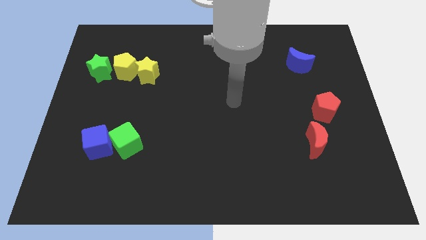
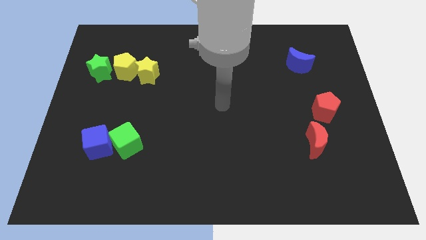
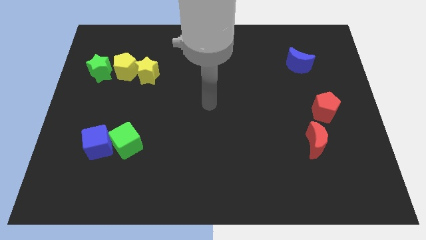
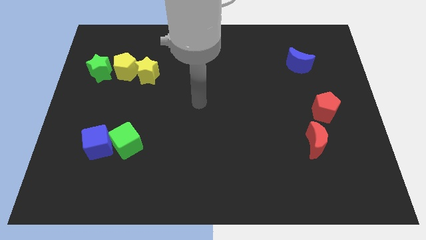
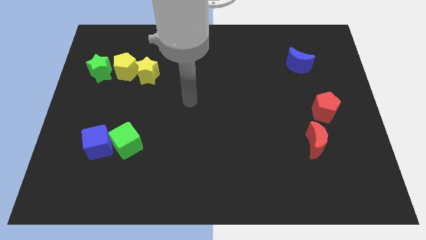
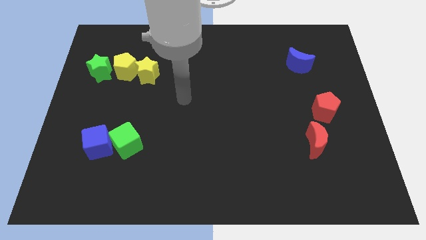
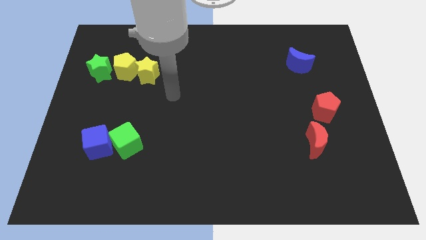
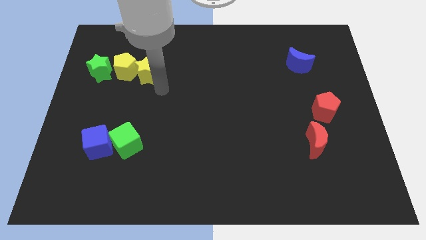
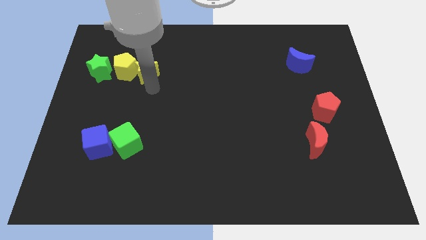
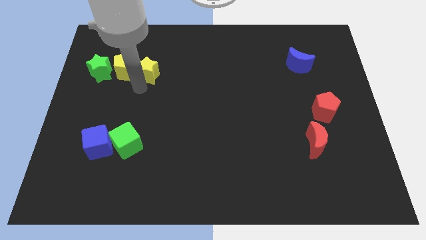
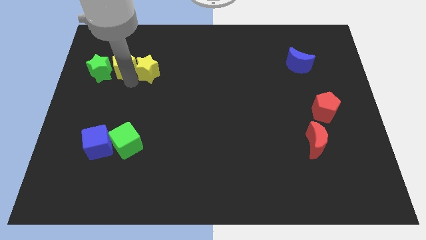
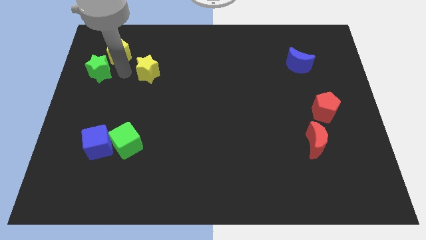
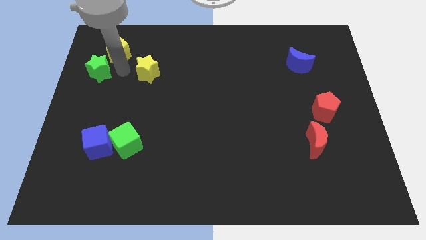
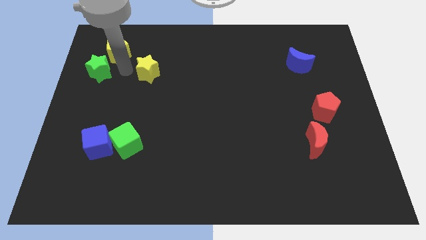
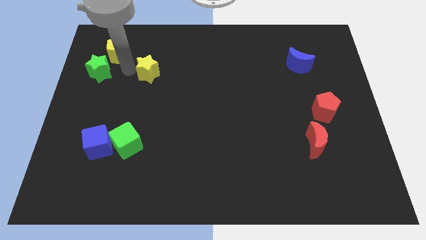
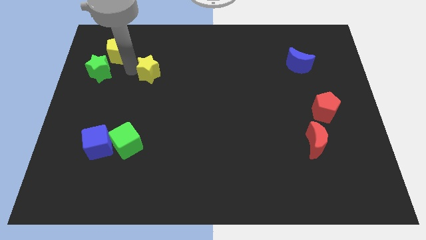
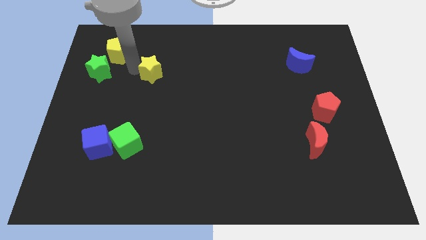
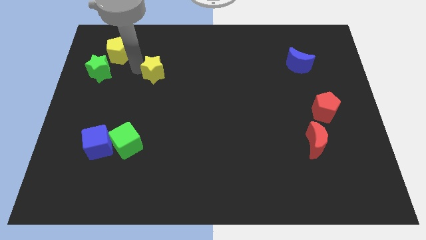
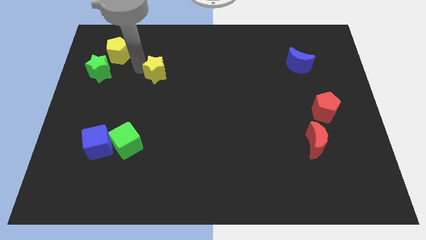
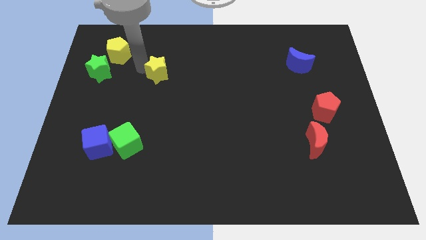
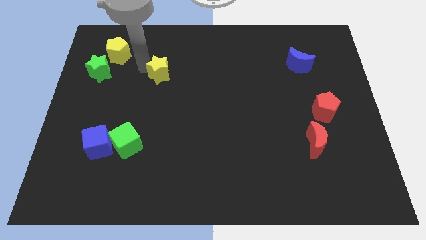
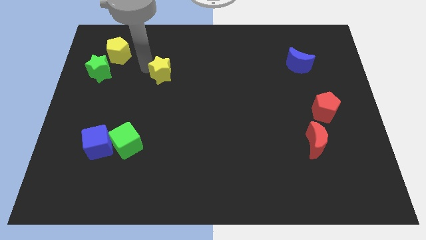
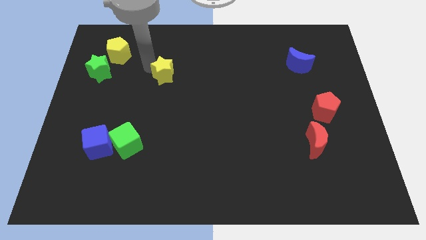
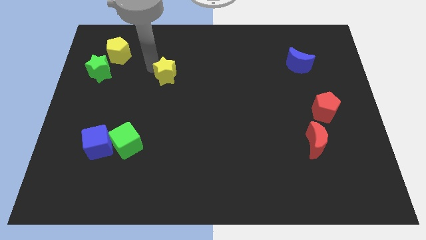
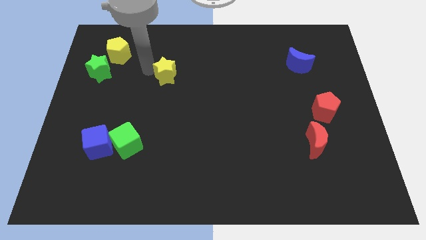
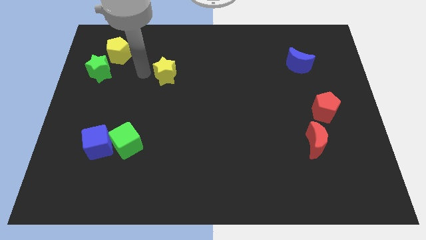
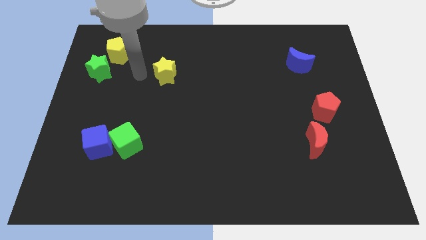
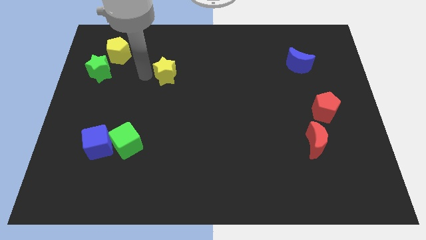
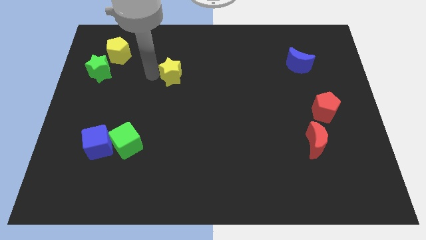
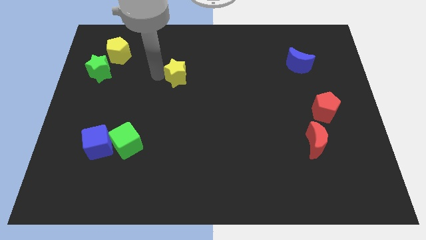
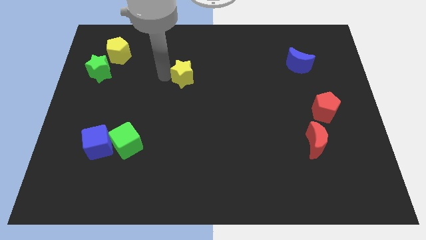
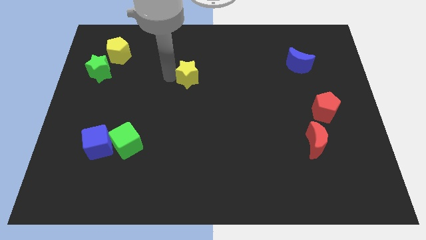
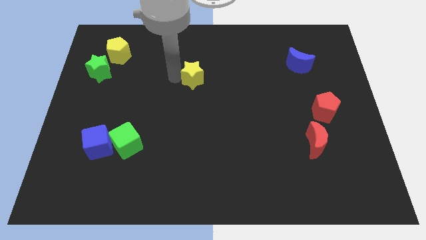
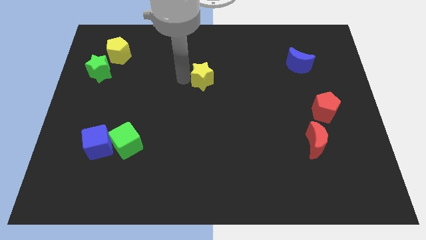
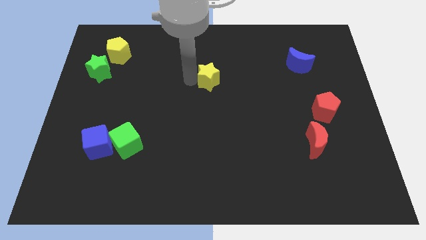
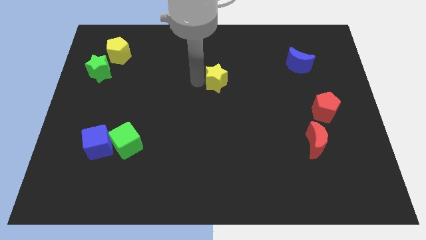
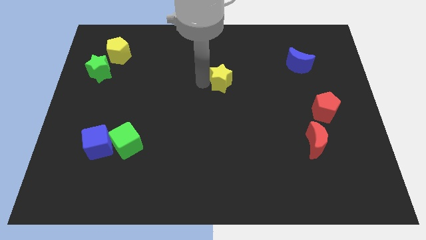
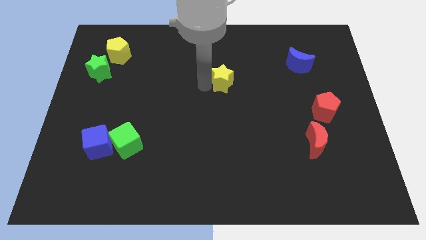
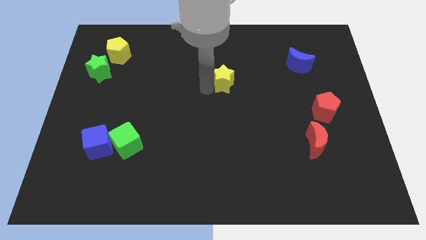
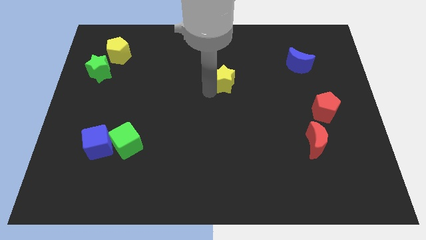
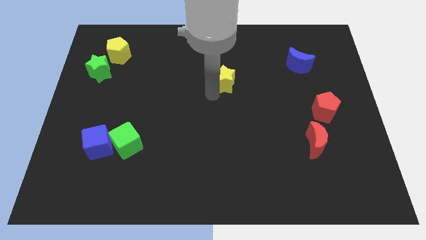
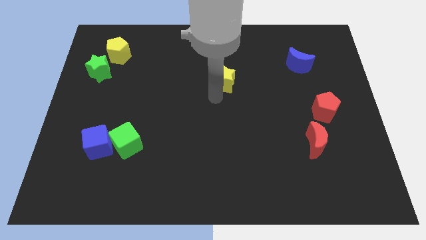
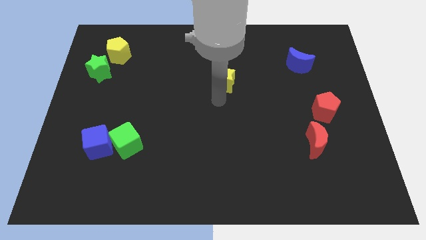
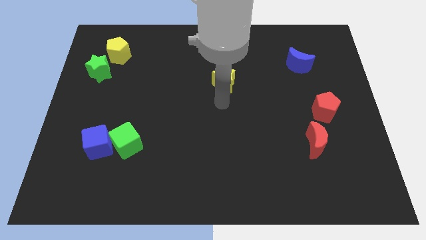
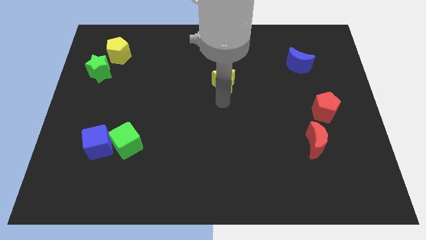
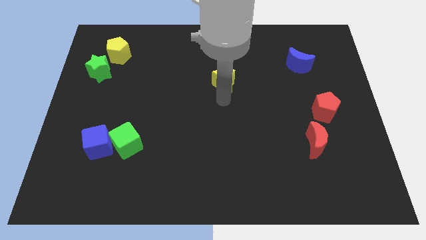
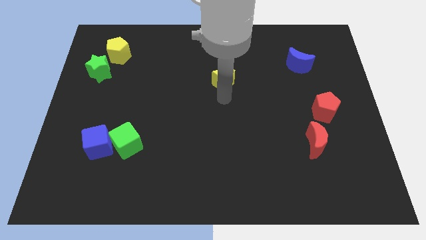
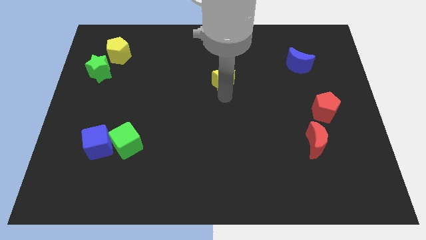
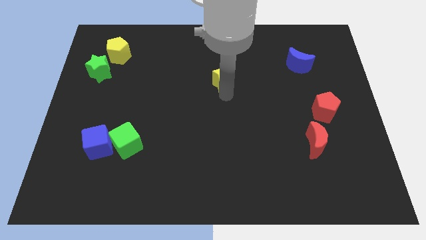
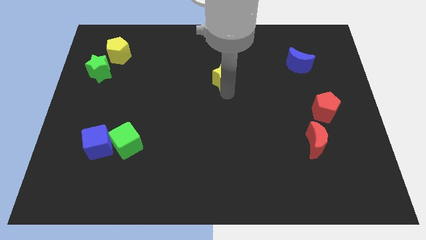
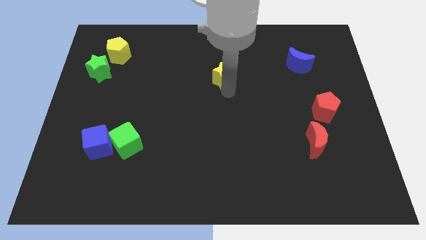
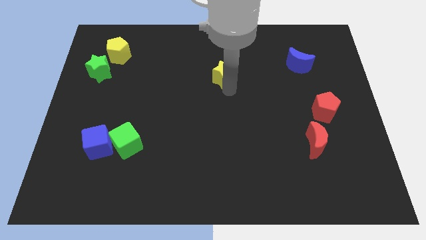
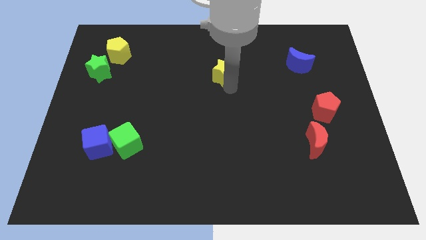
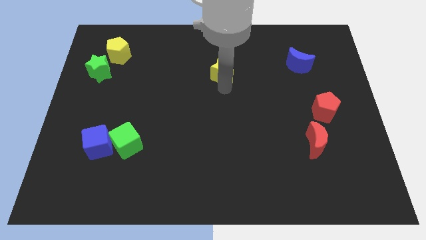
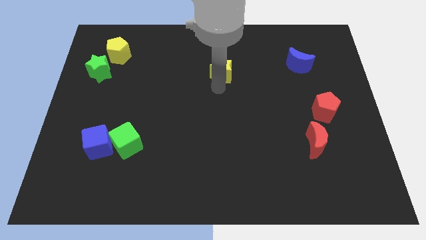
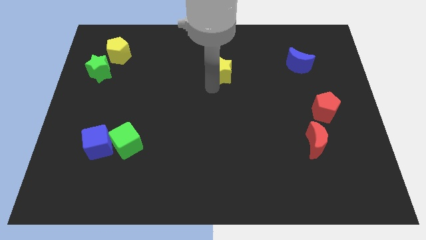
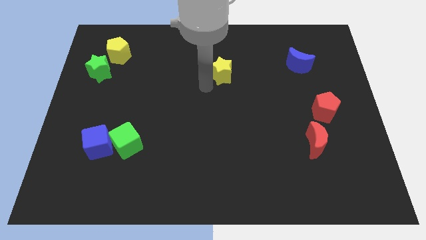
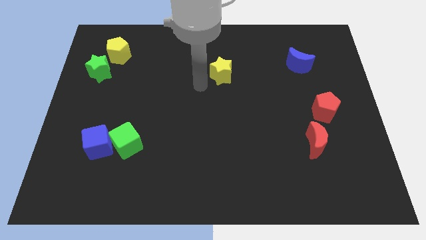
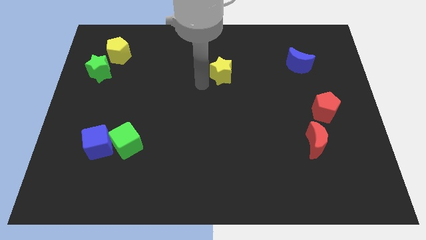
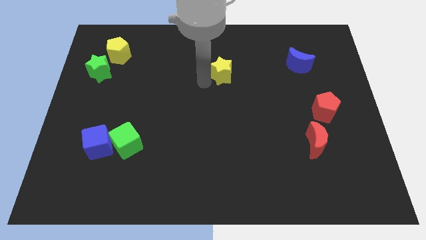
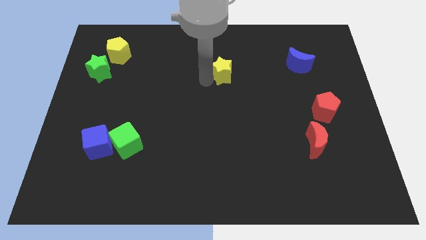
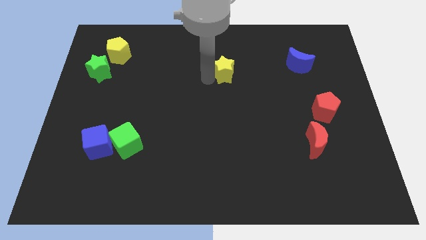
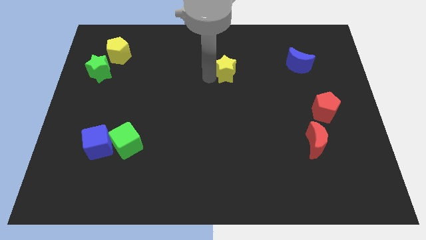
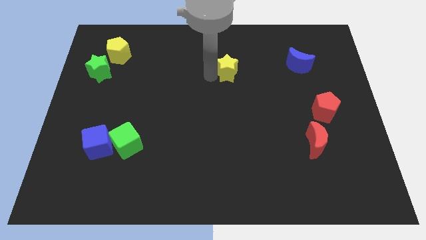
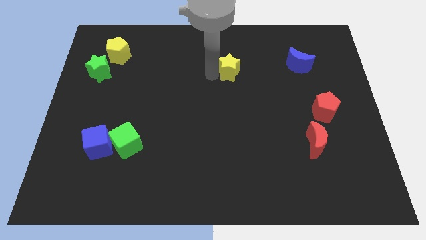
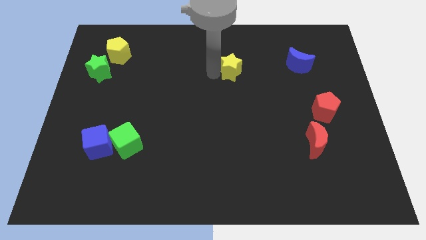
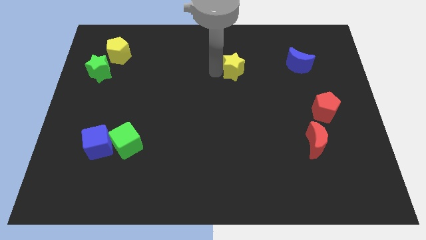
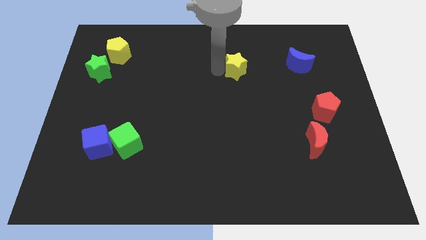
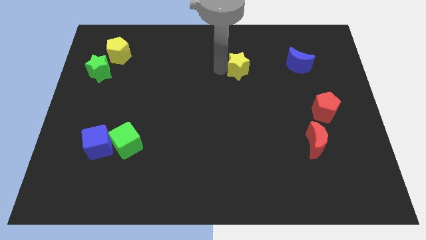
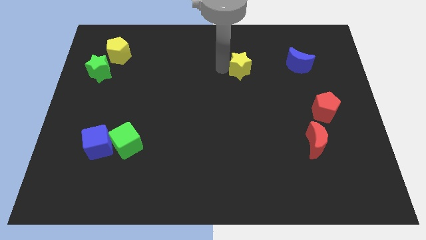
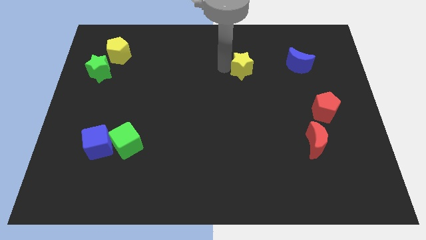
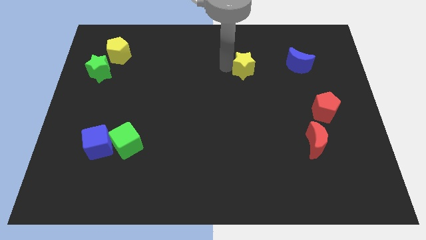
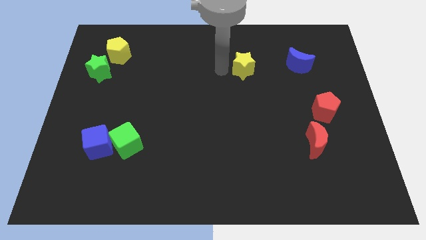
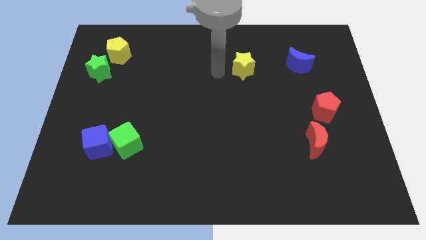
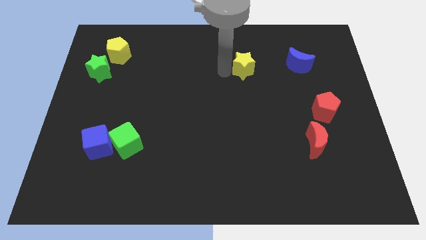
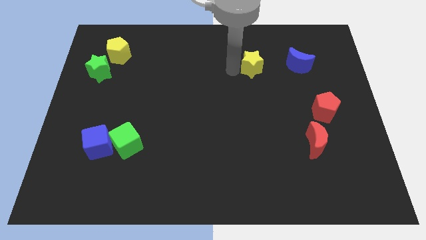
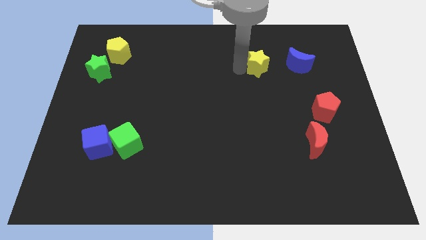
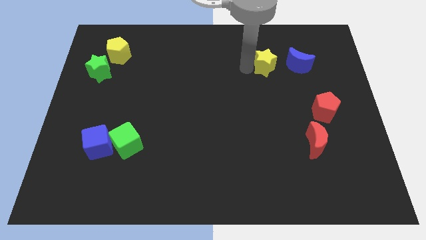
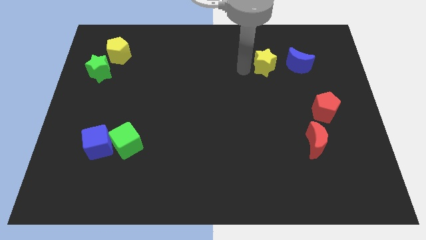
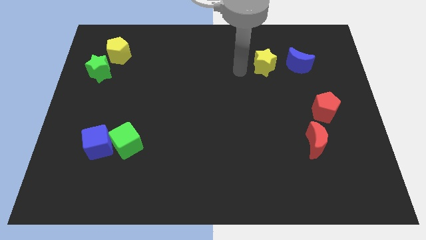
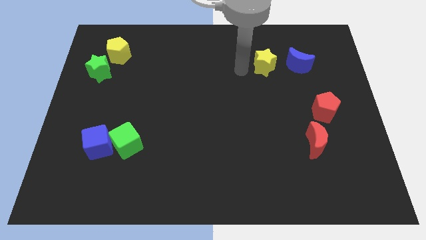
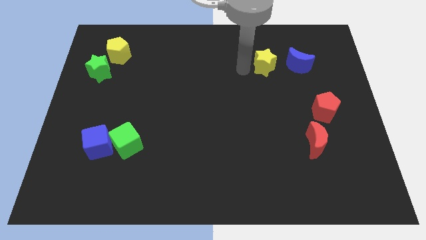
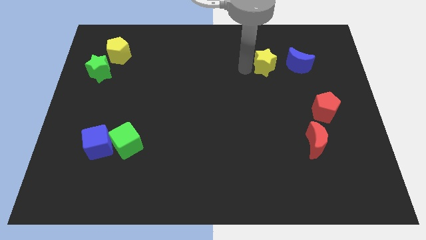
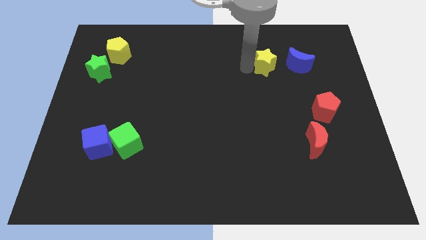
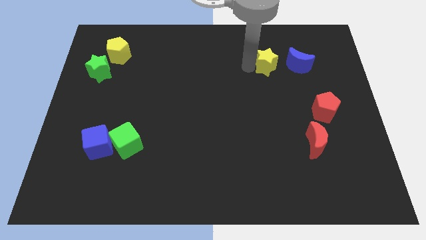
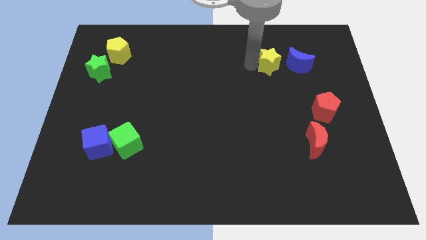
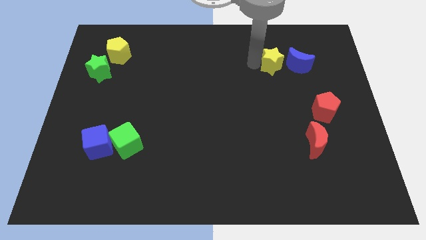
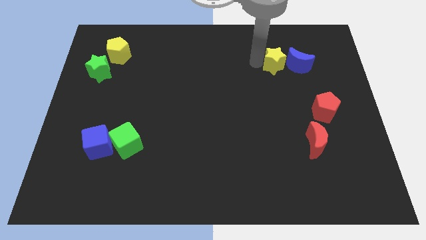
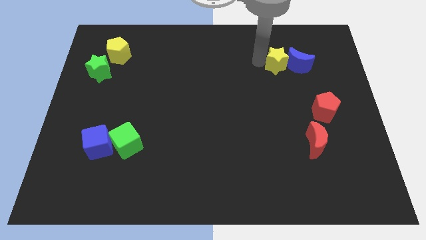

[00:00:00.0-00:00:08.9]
slide the yellow star to the blue moon
